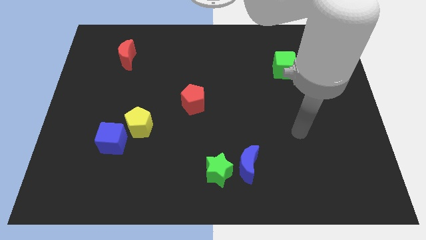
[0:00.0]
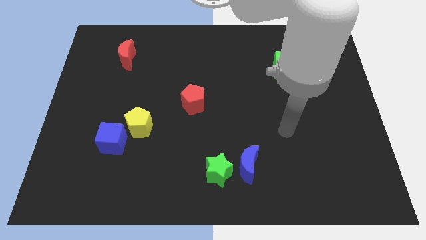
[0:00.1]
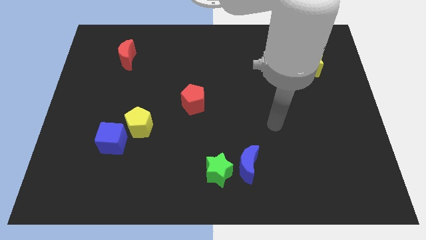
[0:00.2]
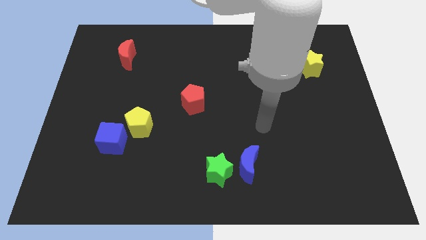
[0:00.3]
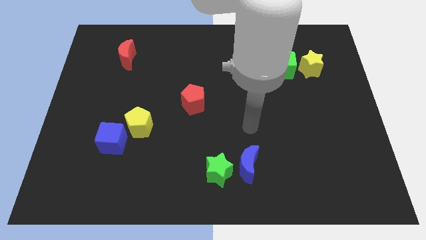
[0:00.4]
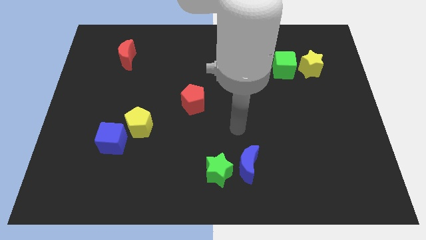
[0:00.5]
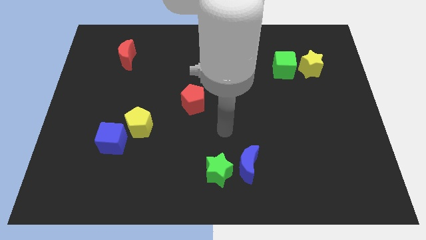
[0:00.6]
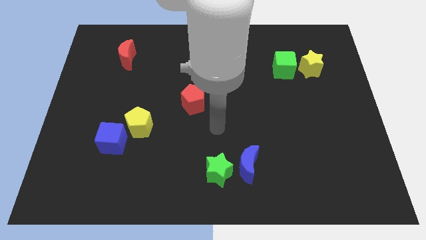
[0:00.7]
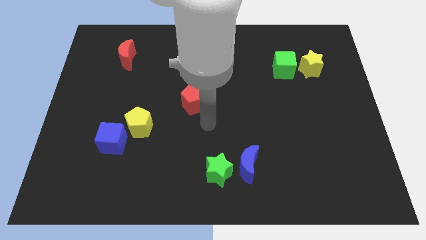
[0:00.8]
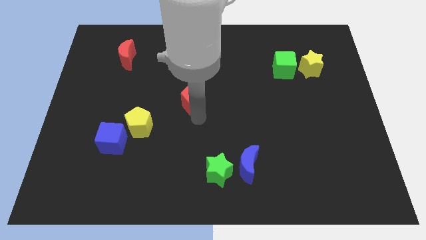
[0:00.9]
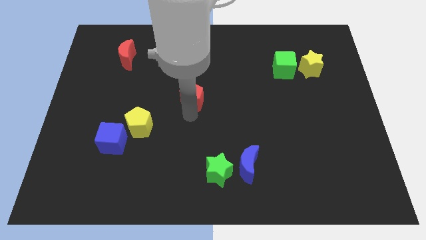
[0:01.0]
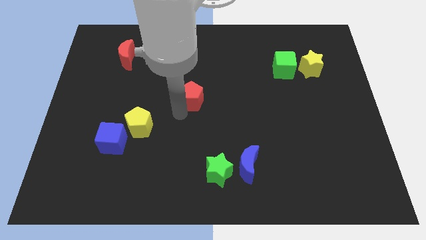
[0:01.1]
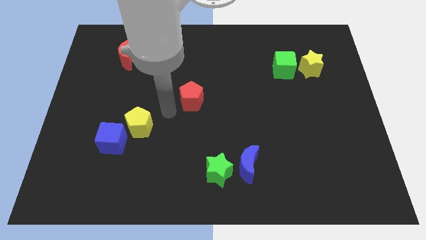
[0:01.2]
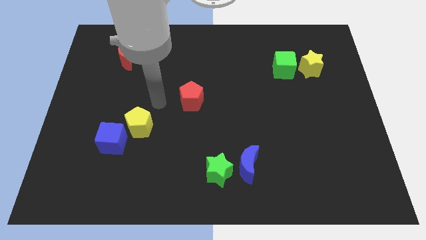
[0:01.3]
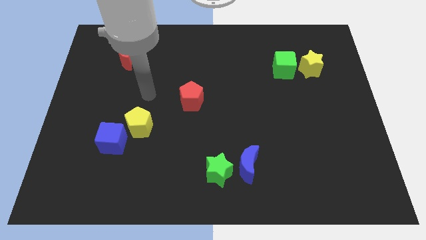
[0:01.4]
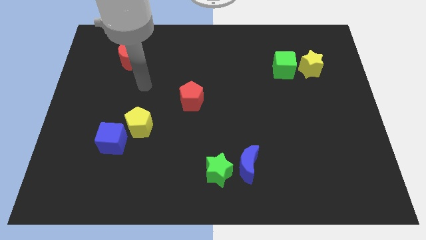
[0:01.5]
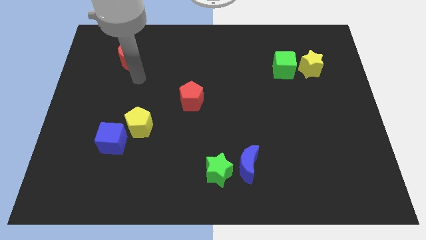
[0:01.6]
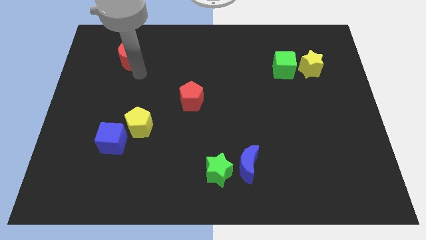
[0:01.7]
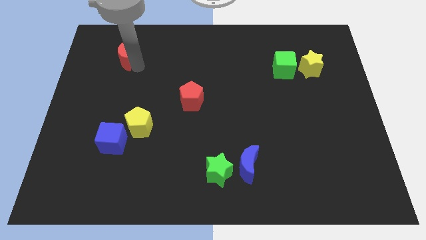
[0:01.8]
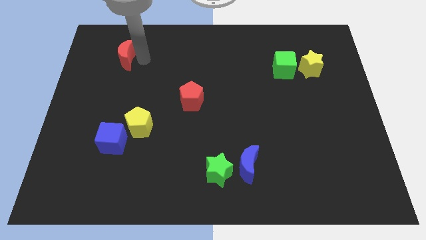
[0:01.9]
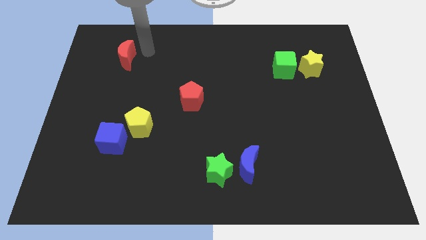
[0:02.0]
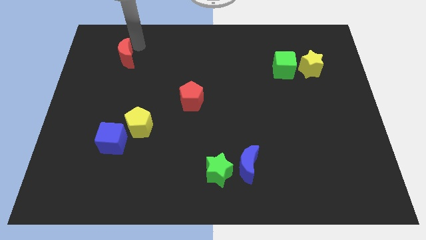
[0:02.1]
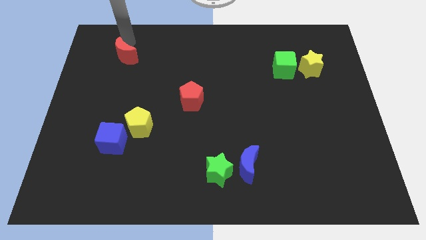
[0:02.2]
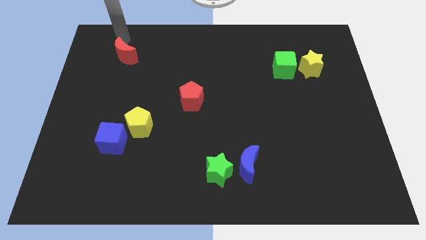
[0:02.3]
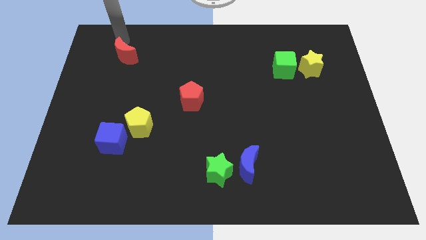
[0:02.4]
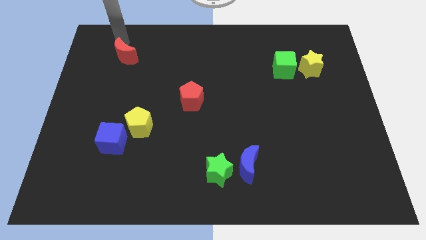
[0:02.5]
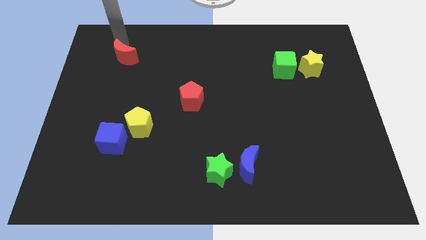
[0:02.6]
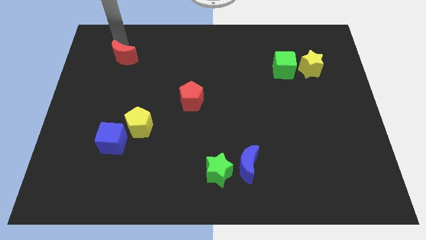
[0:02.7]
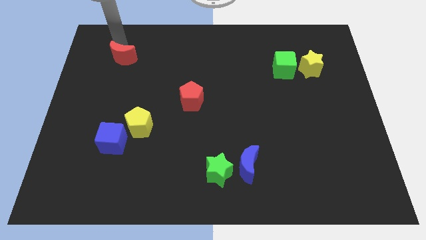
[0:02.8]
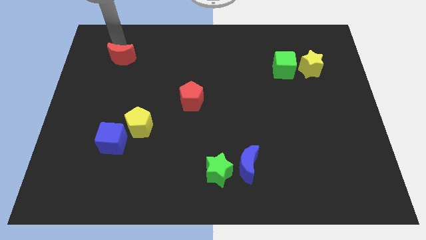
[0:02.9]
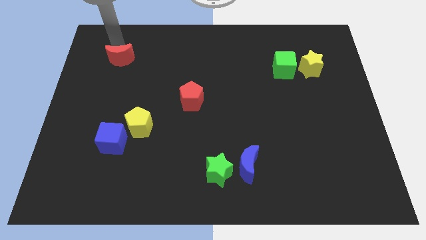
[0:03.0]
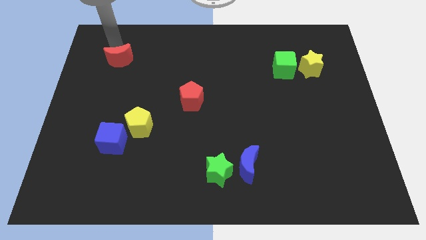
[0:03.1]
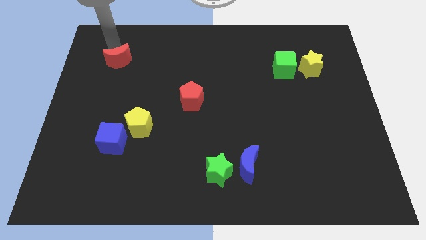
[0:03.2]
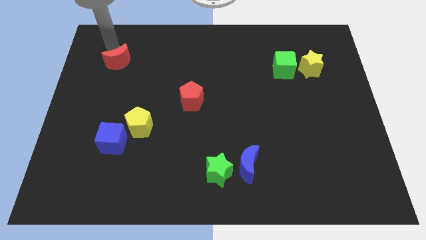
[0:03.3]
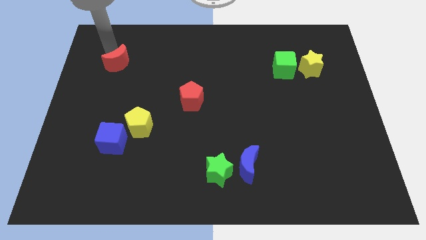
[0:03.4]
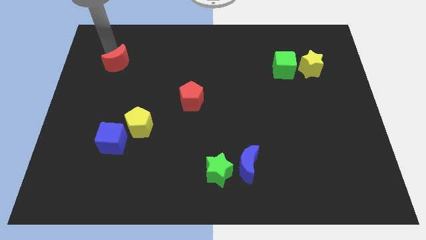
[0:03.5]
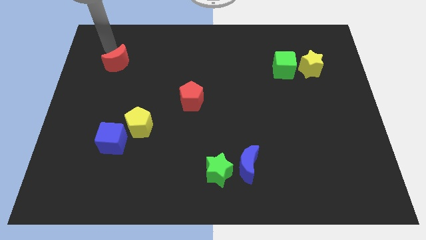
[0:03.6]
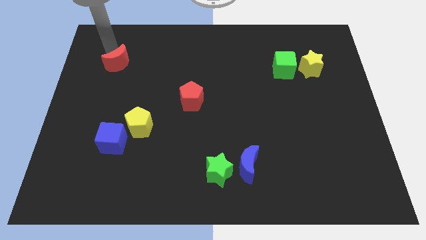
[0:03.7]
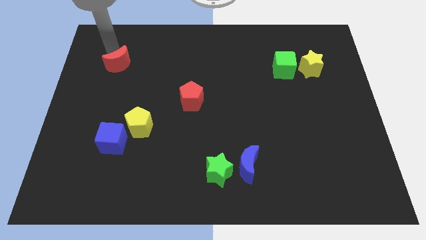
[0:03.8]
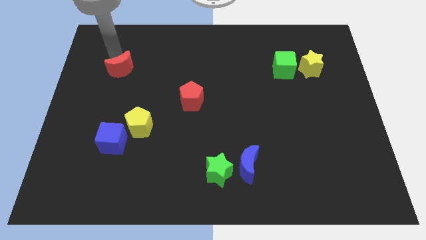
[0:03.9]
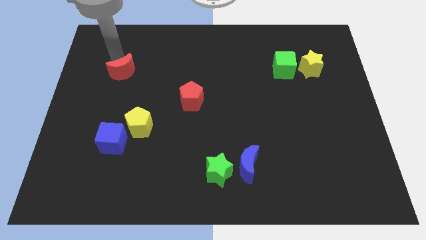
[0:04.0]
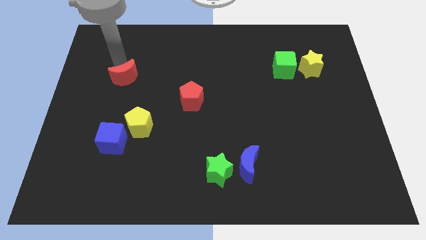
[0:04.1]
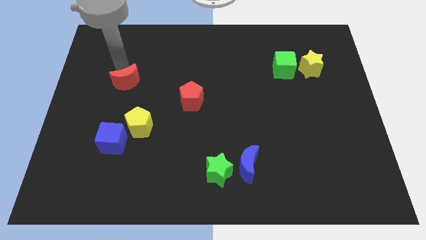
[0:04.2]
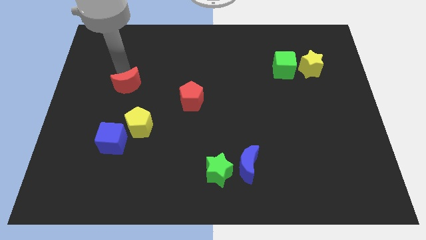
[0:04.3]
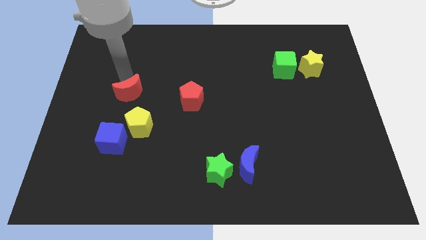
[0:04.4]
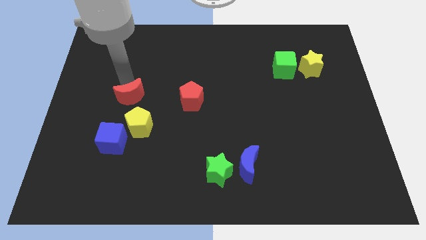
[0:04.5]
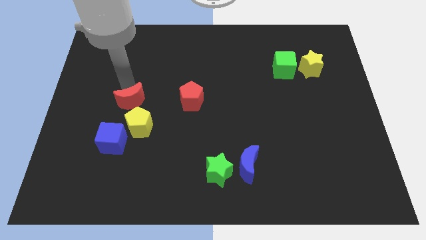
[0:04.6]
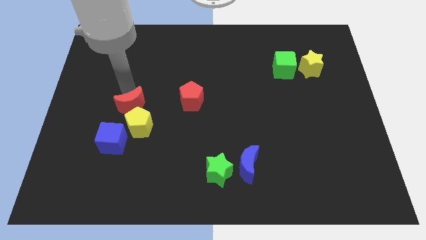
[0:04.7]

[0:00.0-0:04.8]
push the red moon towards the yellow pentagon

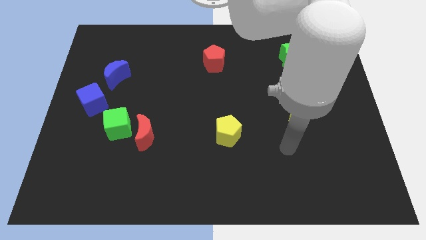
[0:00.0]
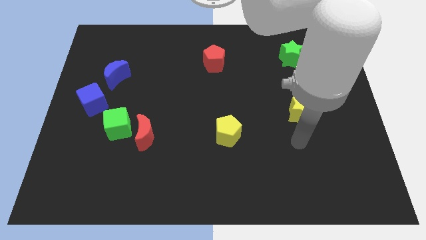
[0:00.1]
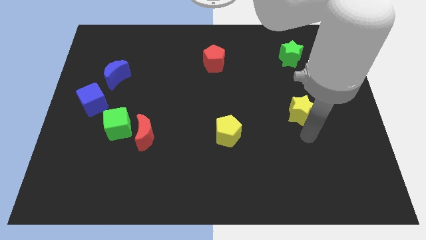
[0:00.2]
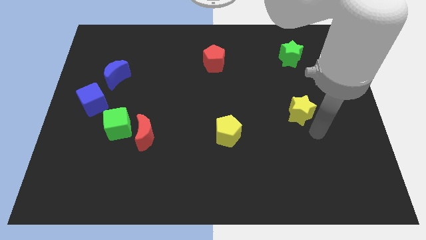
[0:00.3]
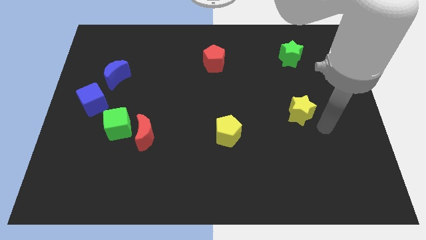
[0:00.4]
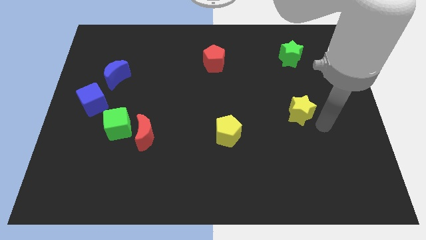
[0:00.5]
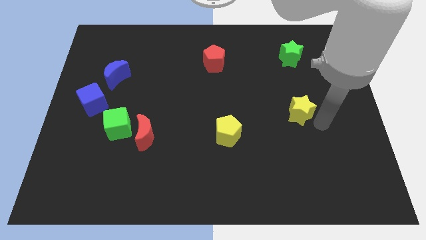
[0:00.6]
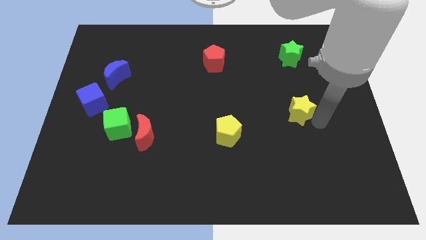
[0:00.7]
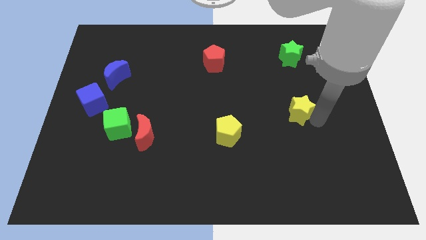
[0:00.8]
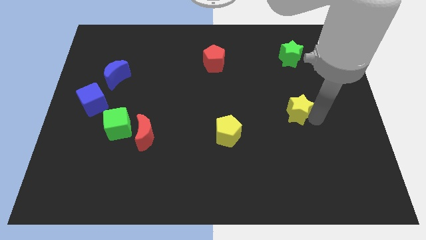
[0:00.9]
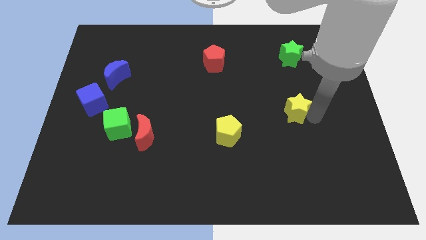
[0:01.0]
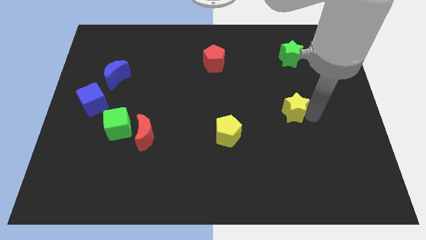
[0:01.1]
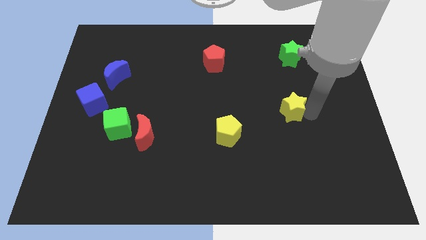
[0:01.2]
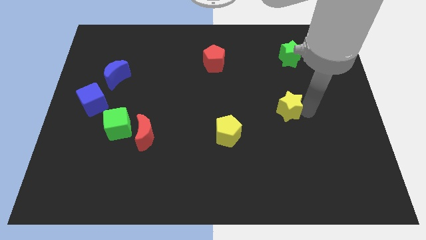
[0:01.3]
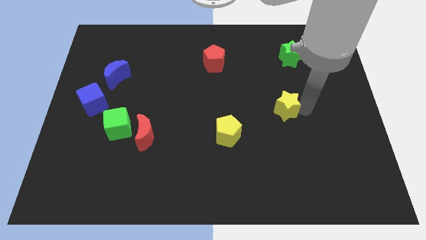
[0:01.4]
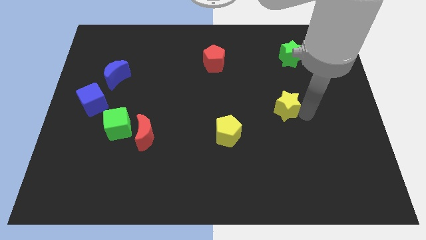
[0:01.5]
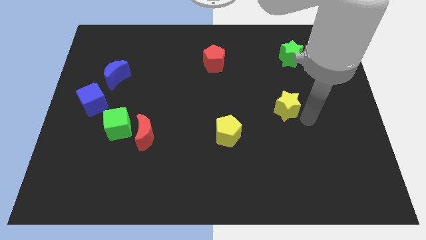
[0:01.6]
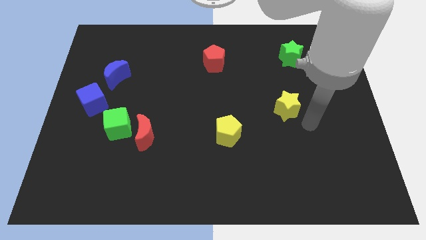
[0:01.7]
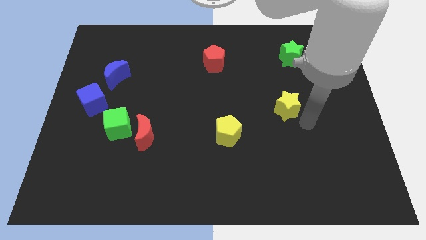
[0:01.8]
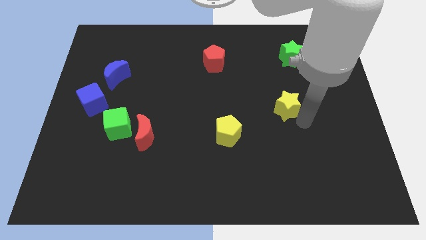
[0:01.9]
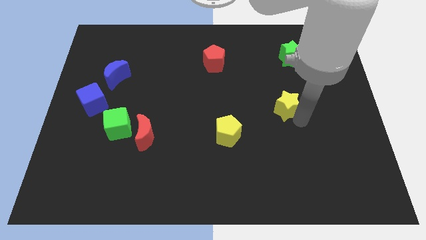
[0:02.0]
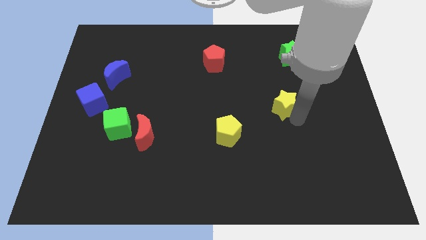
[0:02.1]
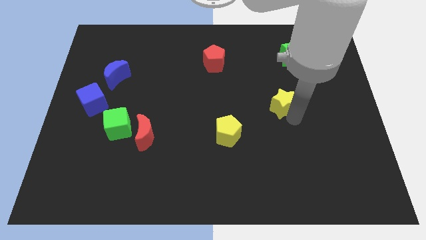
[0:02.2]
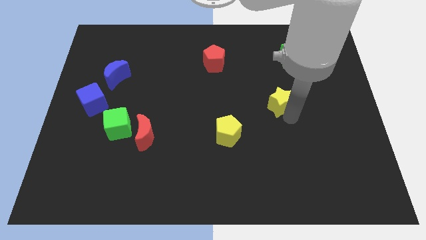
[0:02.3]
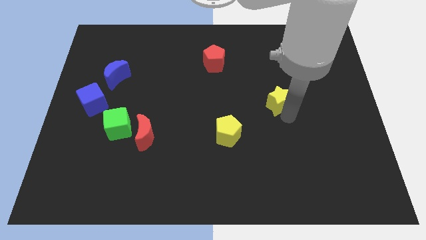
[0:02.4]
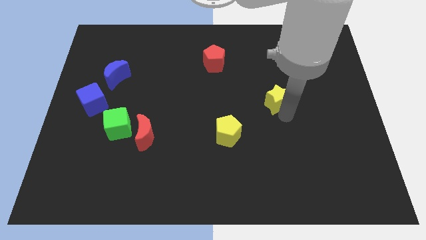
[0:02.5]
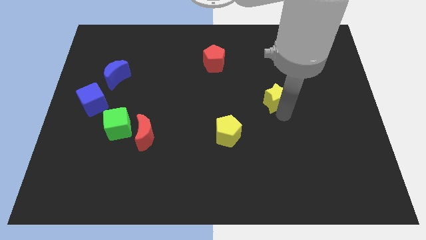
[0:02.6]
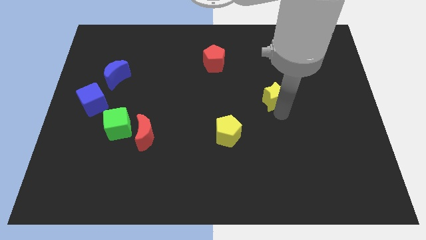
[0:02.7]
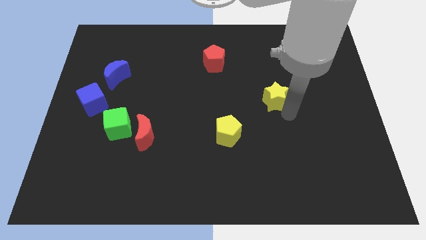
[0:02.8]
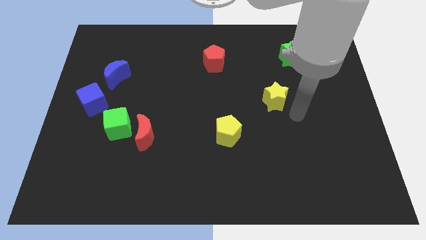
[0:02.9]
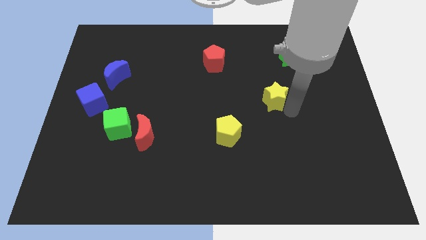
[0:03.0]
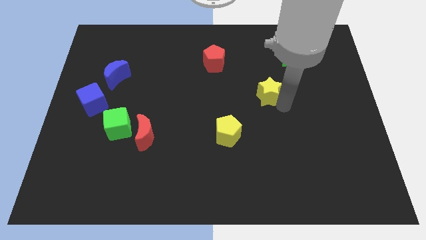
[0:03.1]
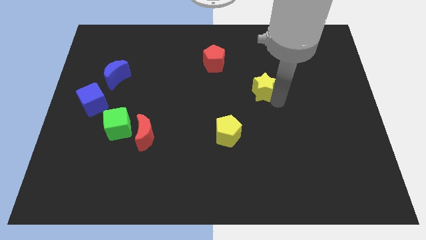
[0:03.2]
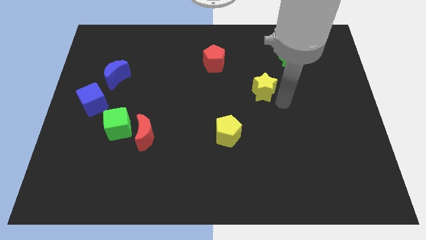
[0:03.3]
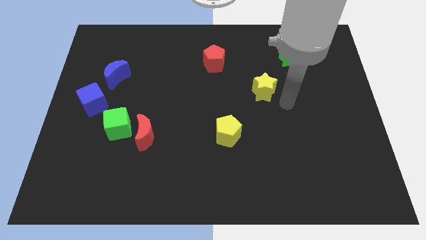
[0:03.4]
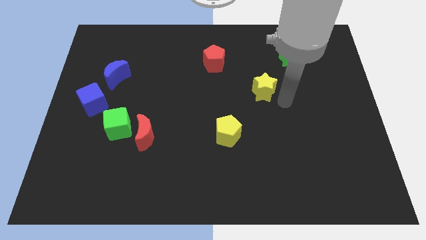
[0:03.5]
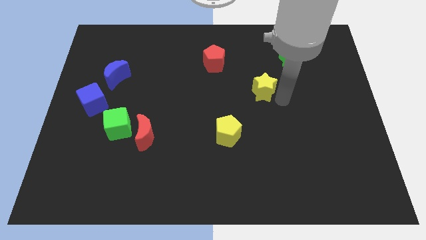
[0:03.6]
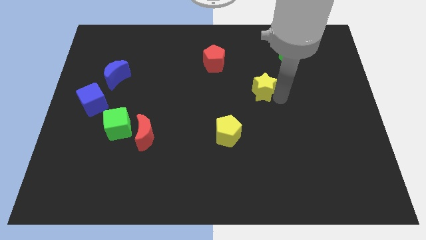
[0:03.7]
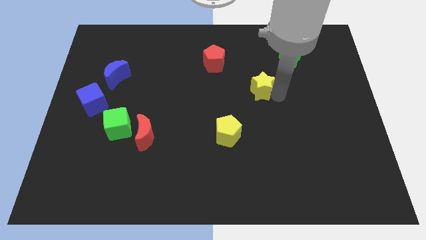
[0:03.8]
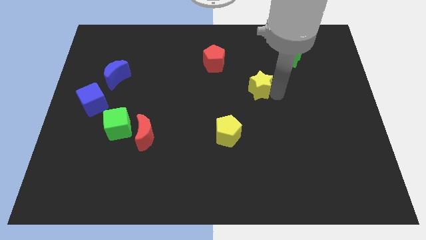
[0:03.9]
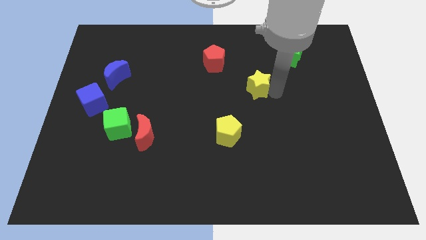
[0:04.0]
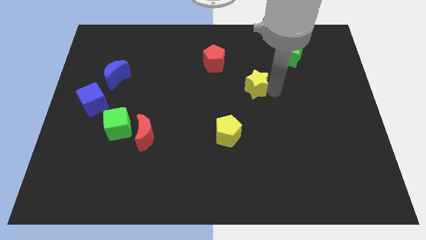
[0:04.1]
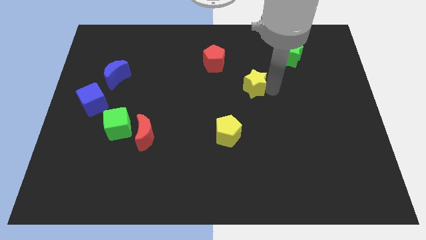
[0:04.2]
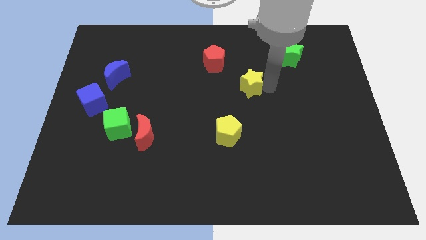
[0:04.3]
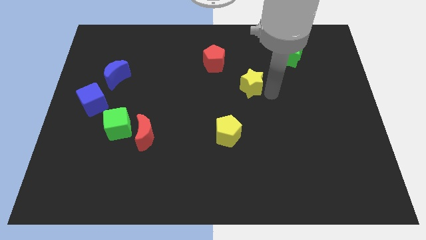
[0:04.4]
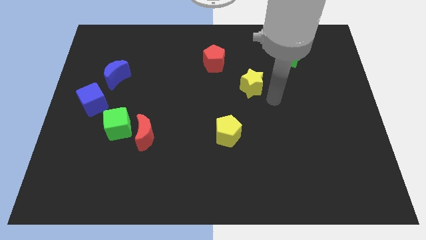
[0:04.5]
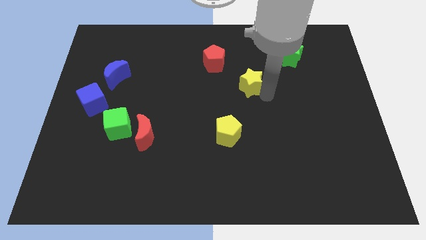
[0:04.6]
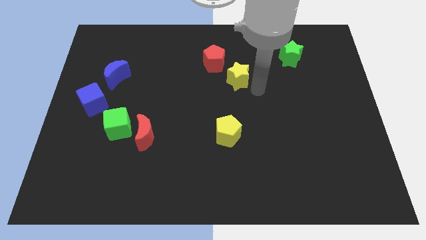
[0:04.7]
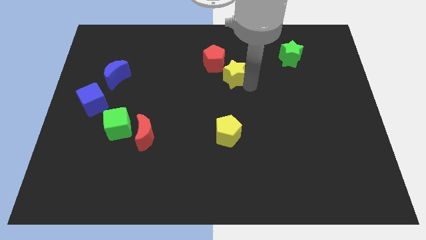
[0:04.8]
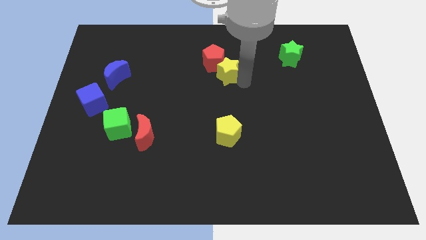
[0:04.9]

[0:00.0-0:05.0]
slide the yellow star close to the red pentagon
